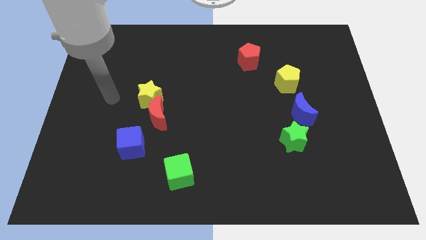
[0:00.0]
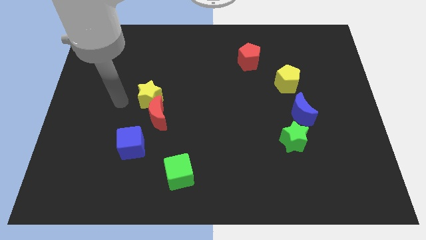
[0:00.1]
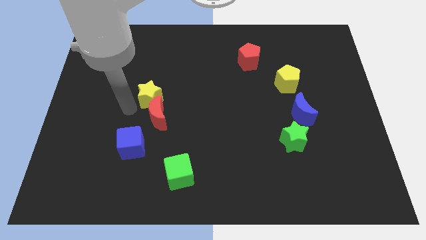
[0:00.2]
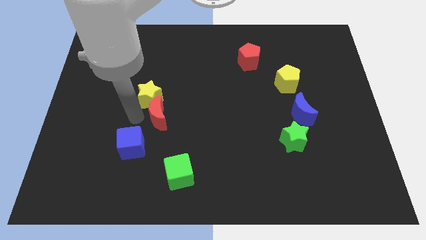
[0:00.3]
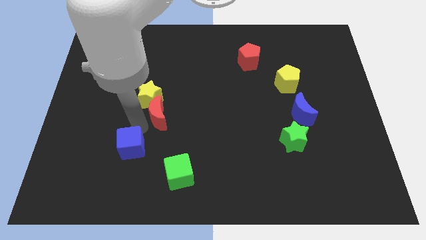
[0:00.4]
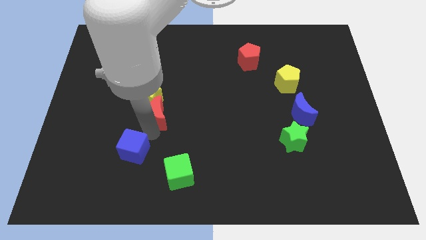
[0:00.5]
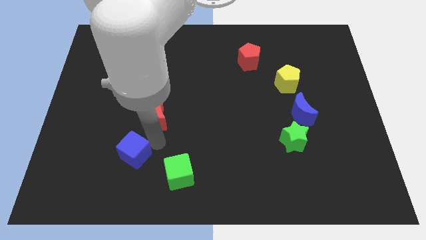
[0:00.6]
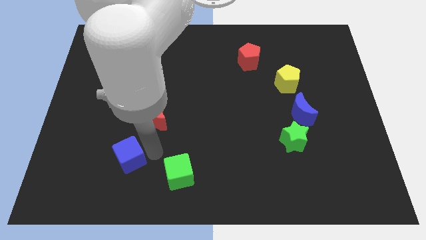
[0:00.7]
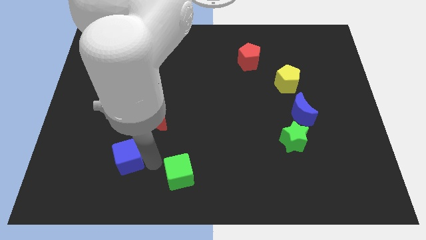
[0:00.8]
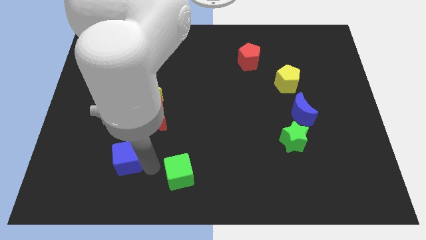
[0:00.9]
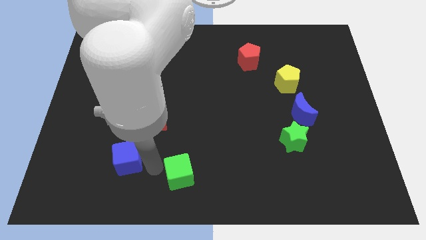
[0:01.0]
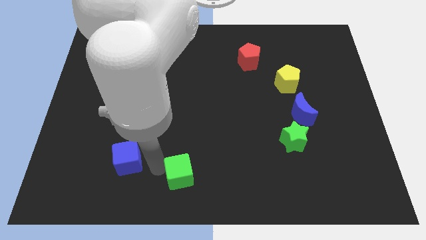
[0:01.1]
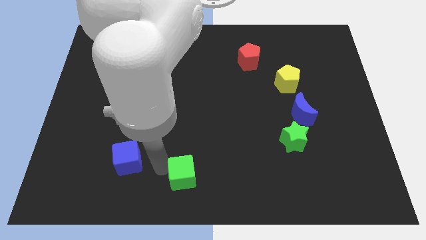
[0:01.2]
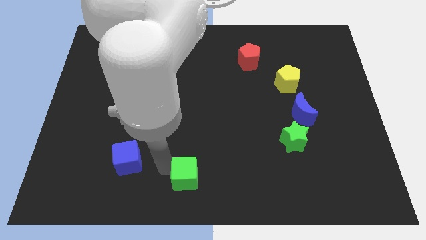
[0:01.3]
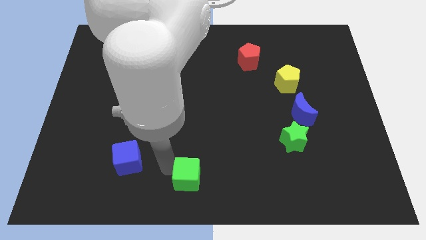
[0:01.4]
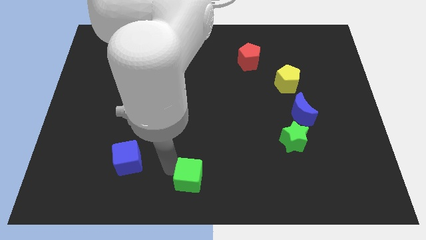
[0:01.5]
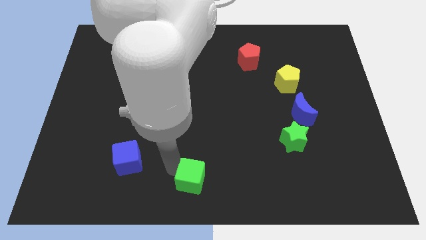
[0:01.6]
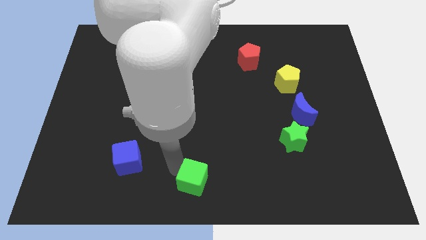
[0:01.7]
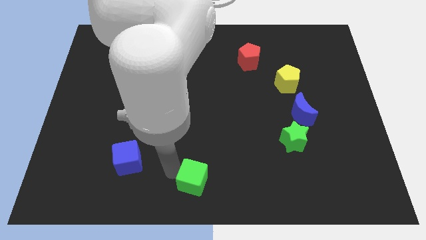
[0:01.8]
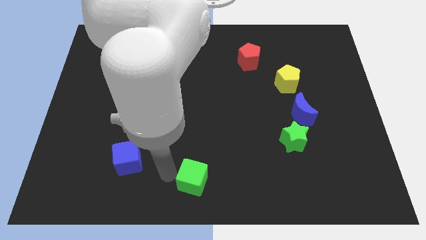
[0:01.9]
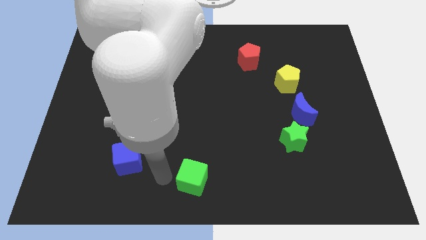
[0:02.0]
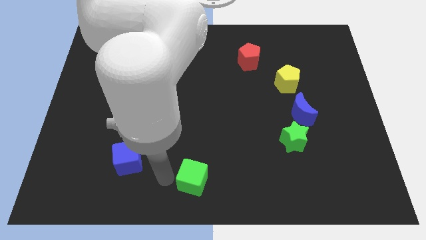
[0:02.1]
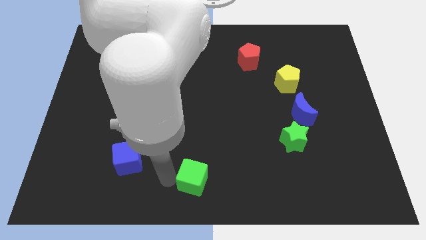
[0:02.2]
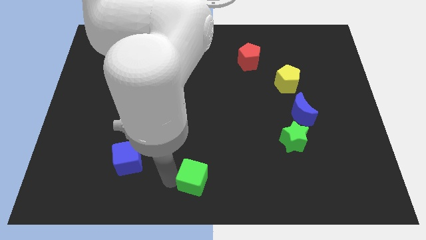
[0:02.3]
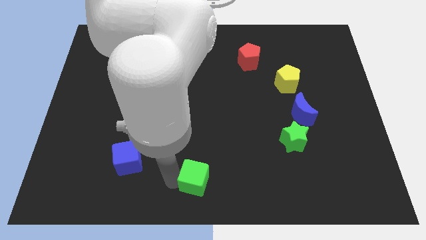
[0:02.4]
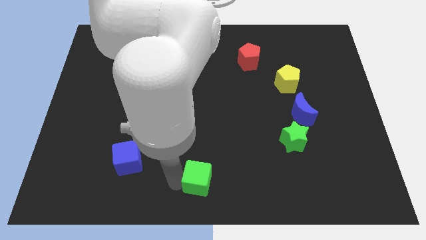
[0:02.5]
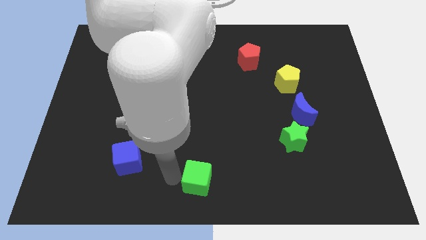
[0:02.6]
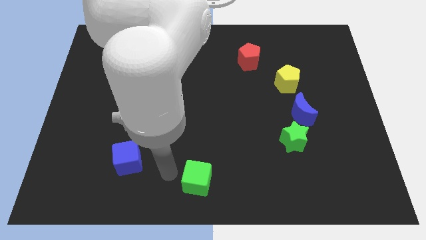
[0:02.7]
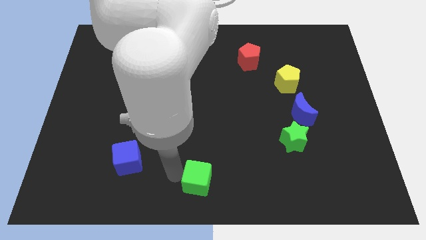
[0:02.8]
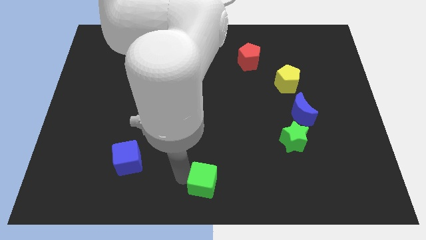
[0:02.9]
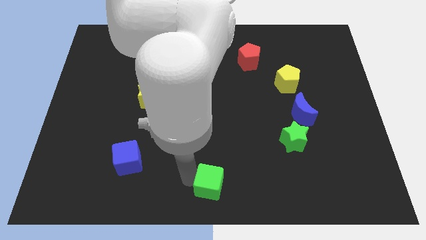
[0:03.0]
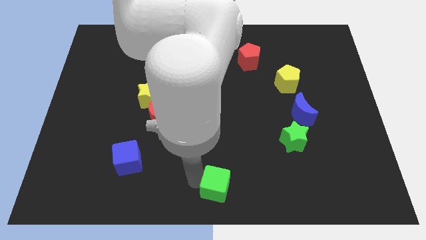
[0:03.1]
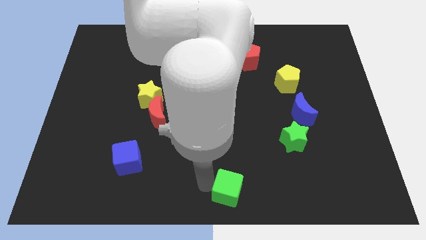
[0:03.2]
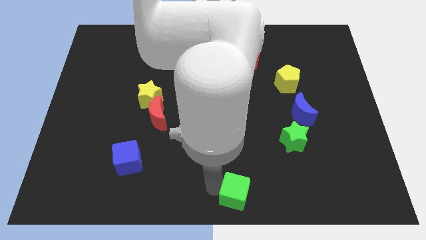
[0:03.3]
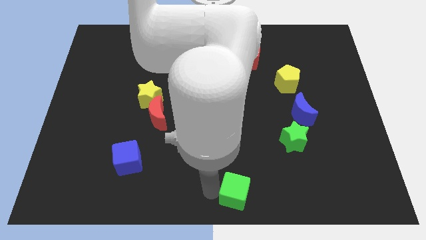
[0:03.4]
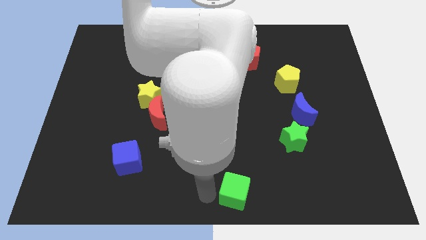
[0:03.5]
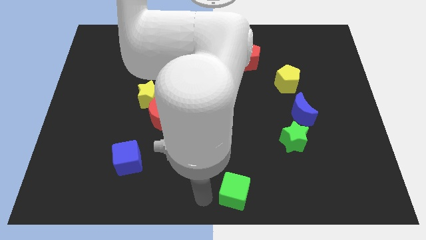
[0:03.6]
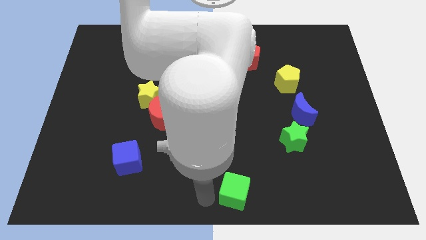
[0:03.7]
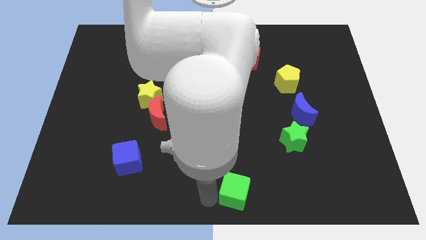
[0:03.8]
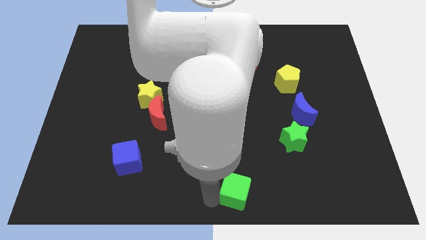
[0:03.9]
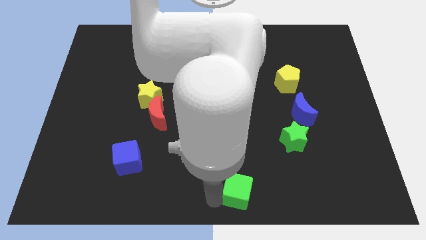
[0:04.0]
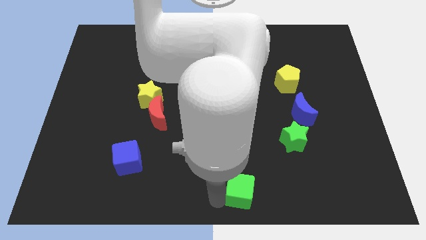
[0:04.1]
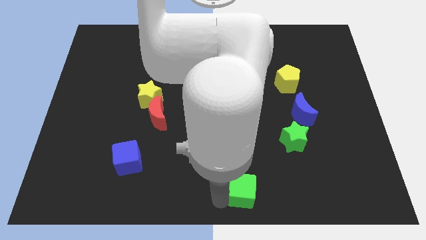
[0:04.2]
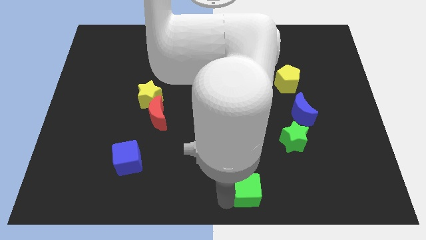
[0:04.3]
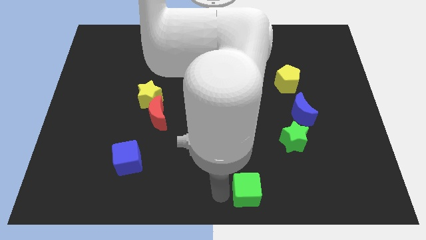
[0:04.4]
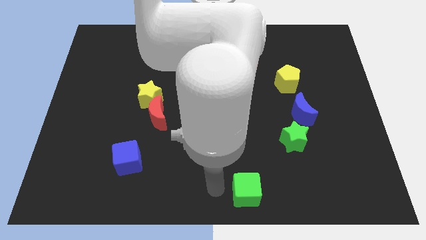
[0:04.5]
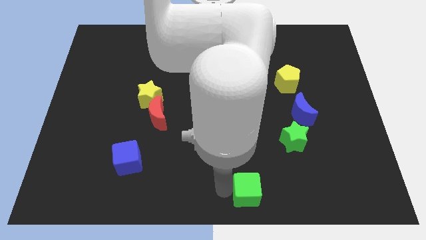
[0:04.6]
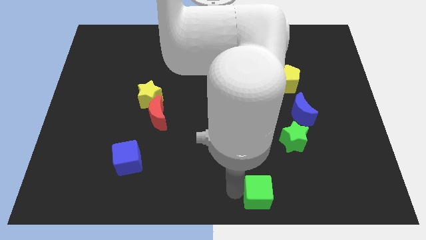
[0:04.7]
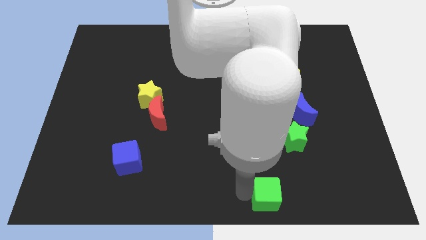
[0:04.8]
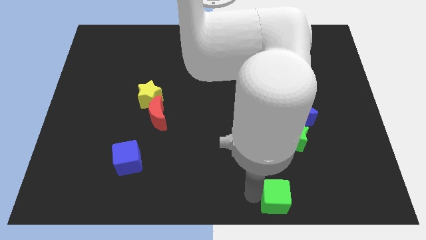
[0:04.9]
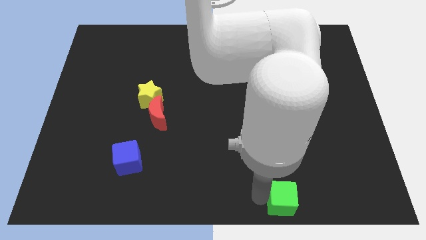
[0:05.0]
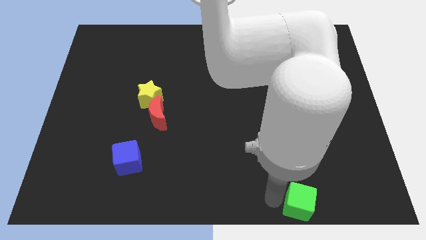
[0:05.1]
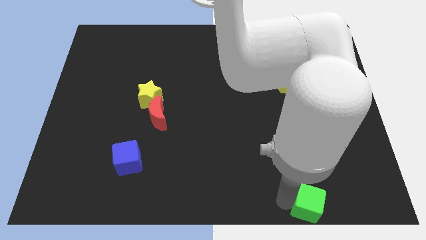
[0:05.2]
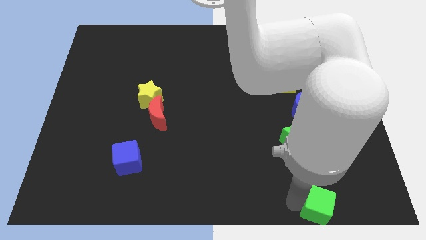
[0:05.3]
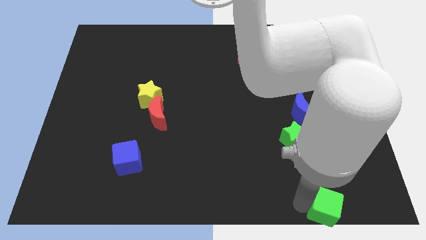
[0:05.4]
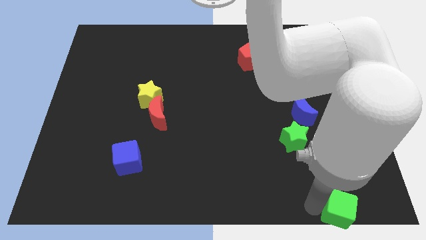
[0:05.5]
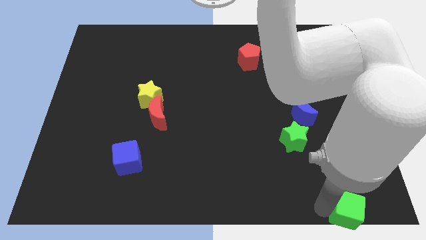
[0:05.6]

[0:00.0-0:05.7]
push the green cube to the bottom right corner

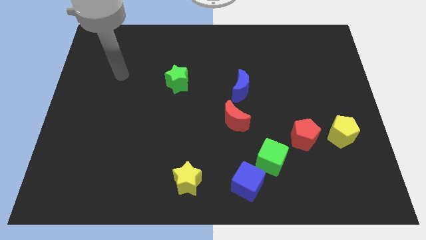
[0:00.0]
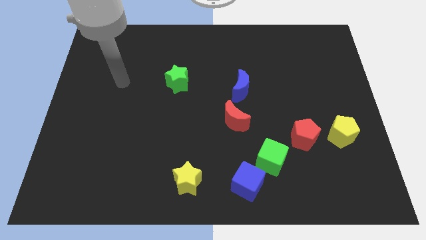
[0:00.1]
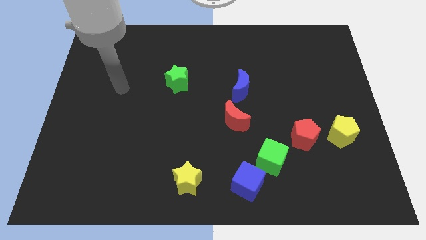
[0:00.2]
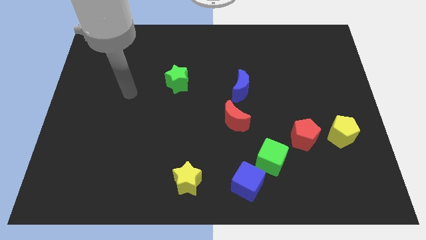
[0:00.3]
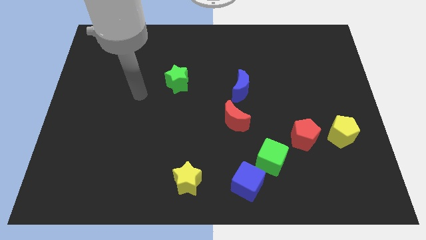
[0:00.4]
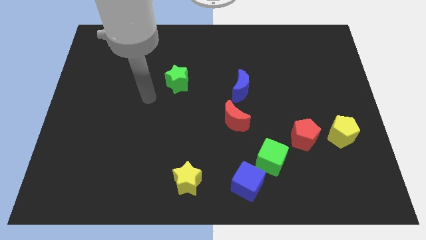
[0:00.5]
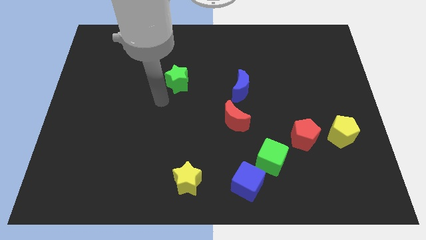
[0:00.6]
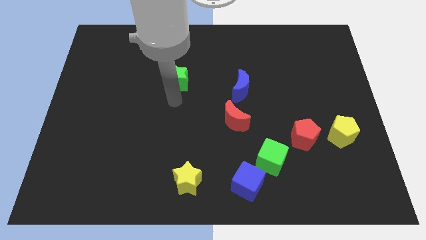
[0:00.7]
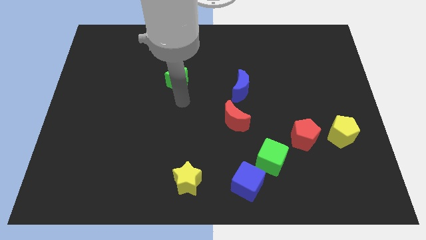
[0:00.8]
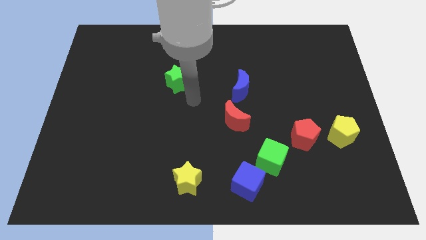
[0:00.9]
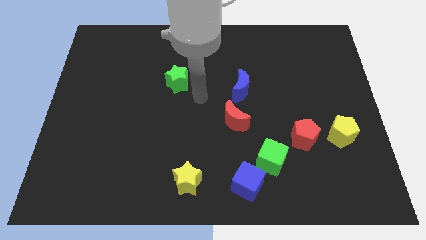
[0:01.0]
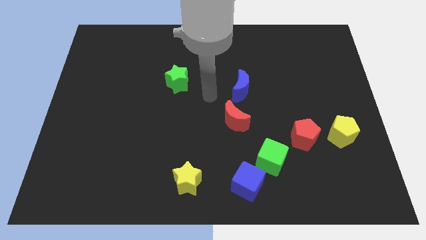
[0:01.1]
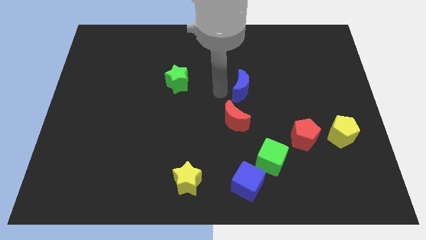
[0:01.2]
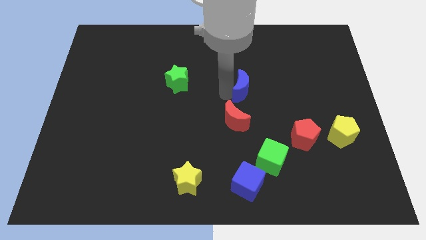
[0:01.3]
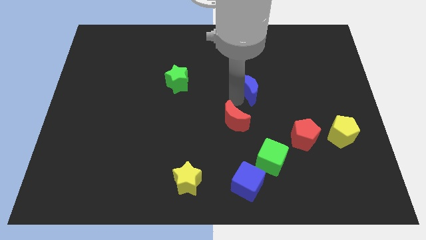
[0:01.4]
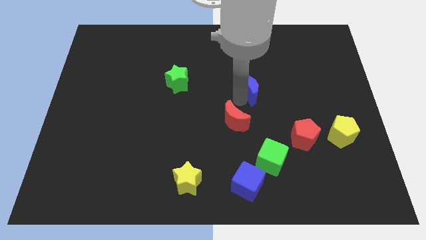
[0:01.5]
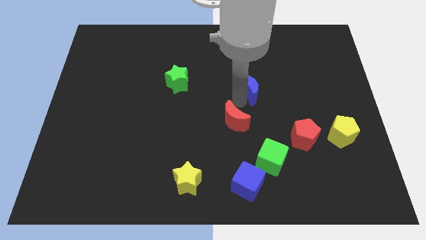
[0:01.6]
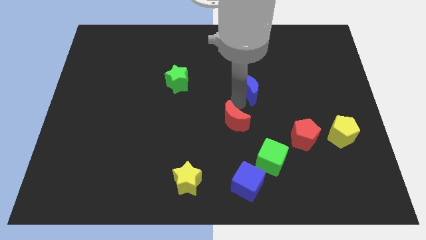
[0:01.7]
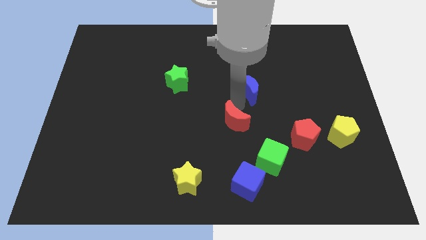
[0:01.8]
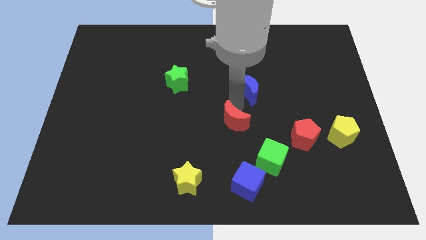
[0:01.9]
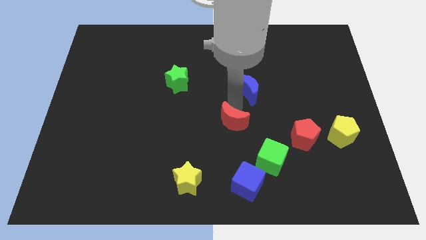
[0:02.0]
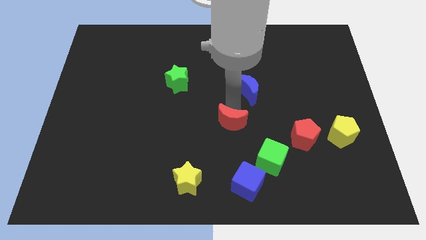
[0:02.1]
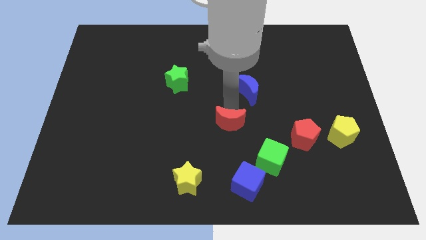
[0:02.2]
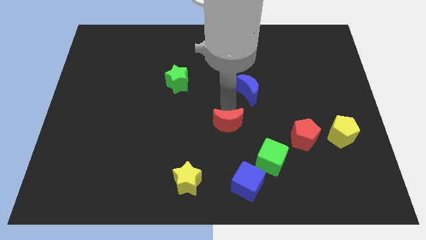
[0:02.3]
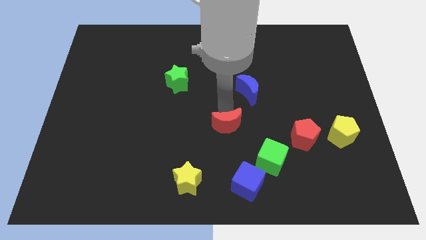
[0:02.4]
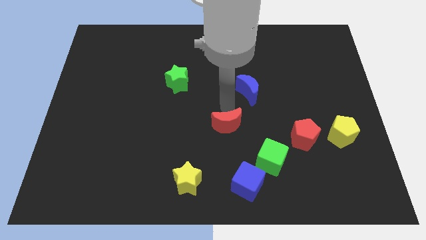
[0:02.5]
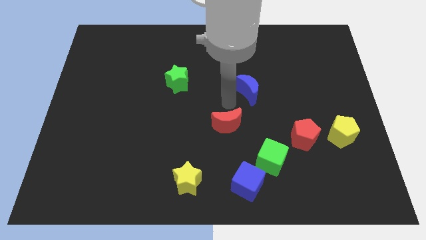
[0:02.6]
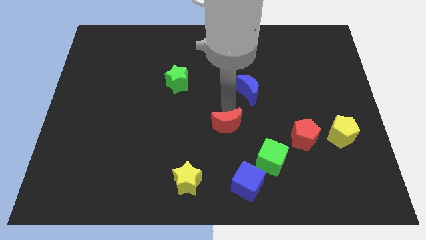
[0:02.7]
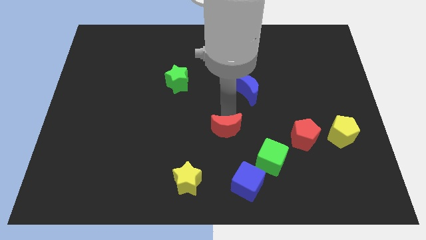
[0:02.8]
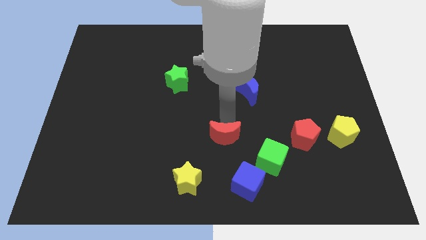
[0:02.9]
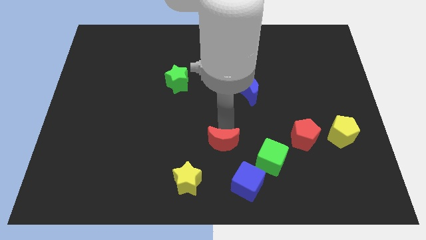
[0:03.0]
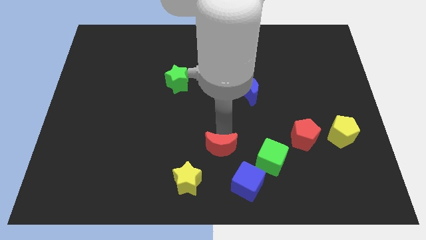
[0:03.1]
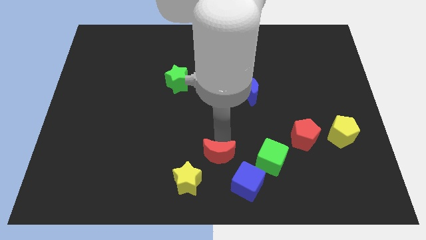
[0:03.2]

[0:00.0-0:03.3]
put the red moon to the bottom side
